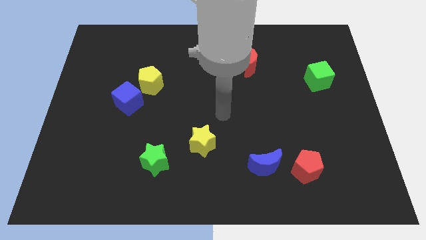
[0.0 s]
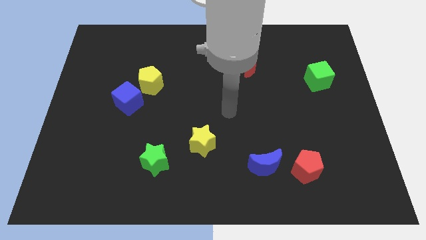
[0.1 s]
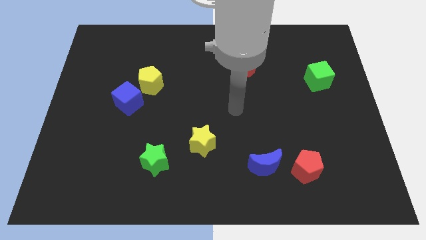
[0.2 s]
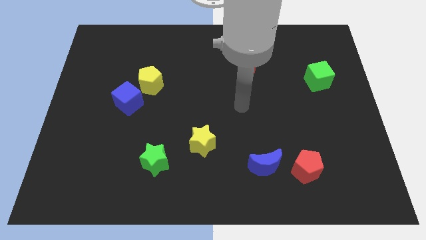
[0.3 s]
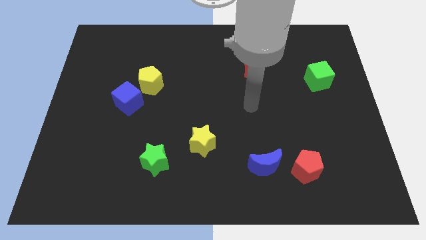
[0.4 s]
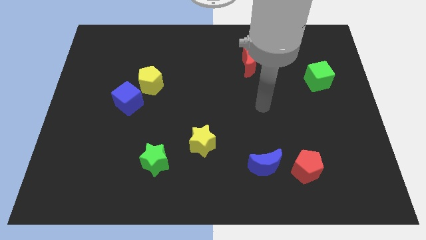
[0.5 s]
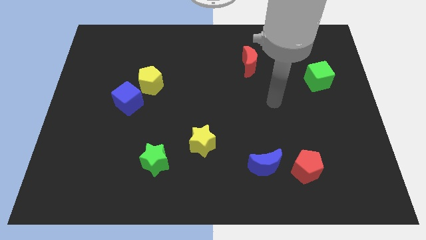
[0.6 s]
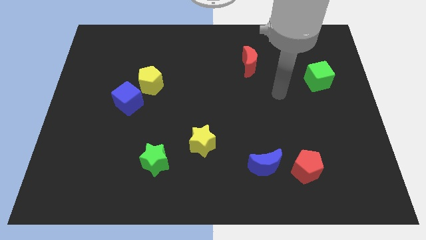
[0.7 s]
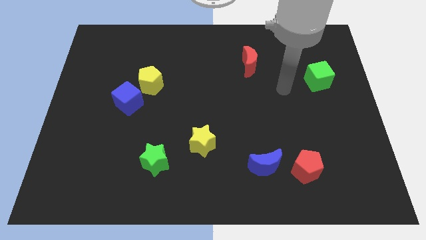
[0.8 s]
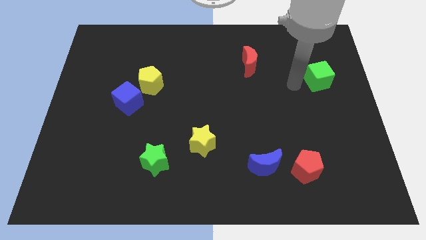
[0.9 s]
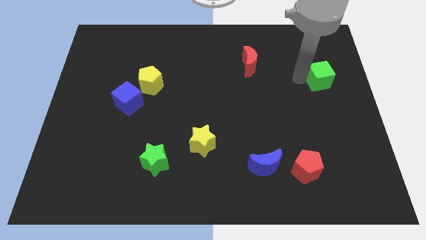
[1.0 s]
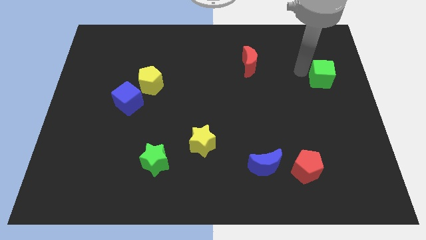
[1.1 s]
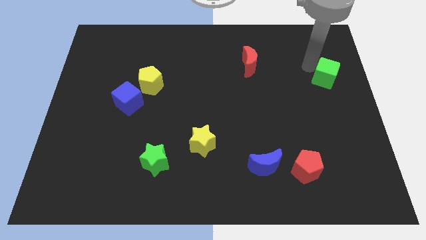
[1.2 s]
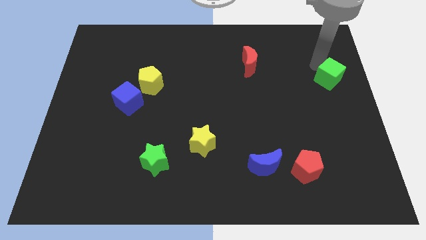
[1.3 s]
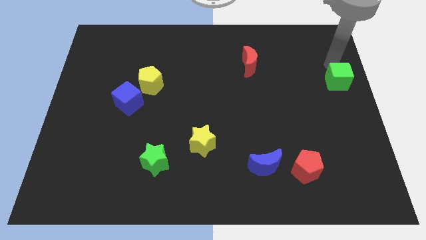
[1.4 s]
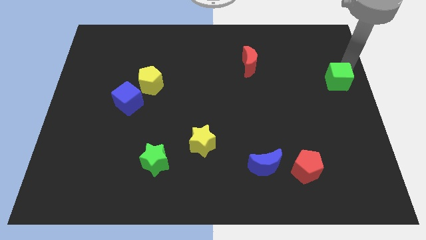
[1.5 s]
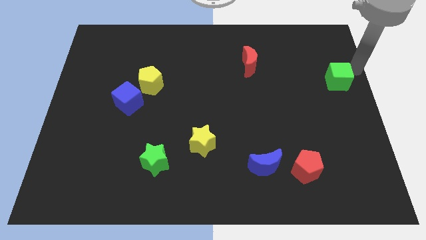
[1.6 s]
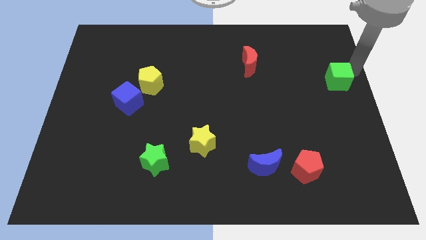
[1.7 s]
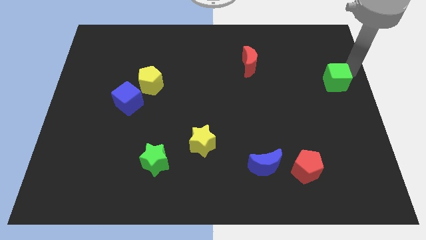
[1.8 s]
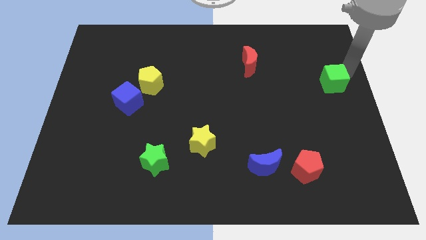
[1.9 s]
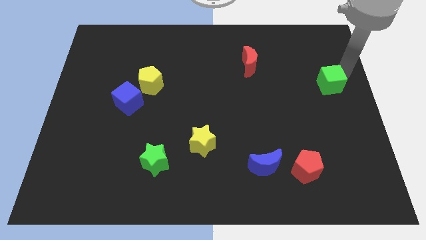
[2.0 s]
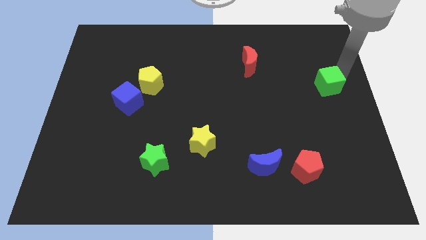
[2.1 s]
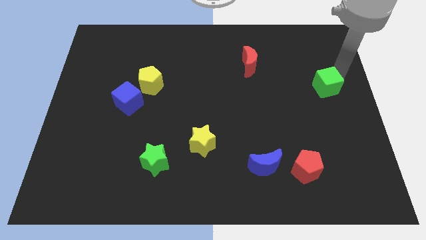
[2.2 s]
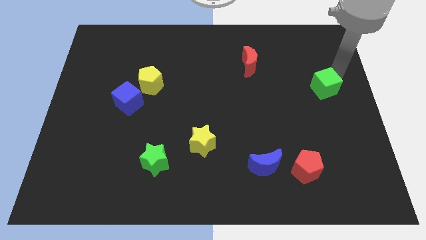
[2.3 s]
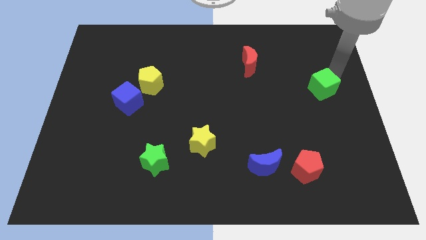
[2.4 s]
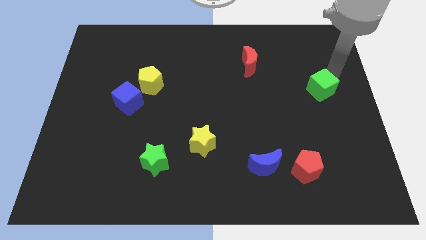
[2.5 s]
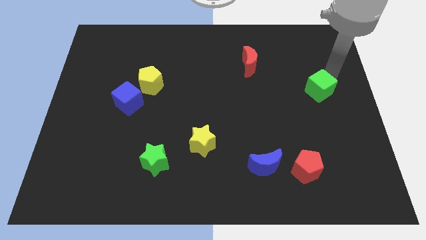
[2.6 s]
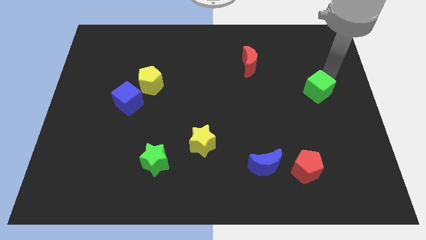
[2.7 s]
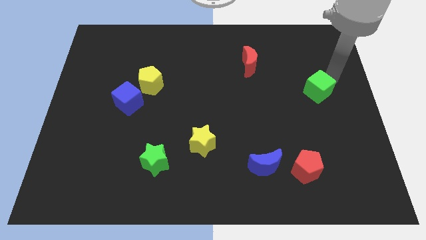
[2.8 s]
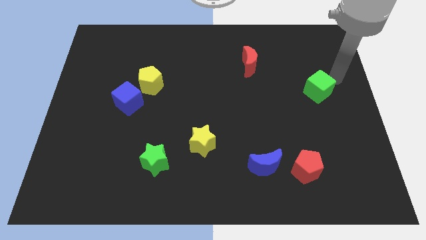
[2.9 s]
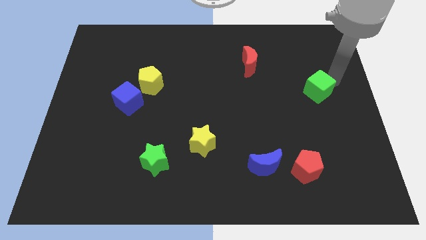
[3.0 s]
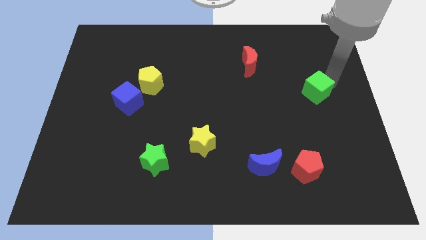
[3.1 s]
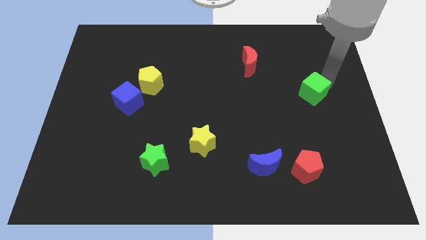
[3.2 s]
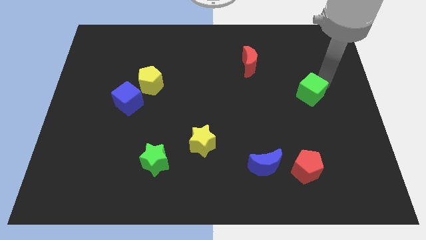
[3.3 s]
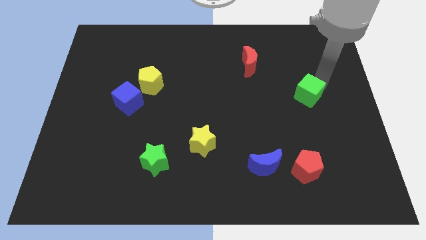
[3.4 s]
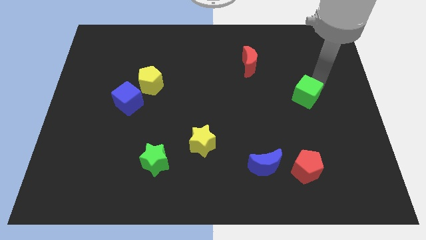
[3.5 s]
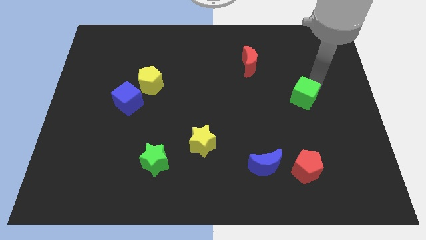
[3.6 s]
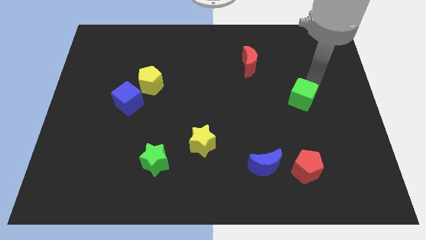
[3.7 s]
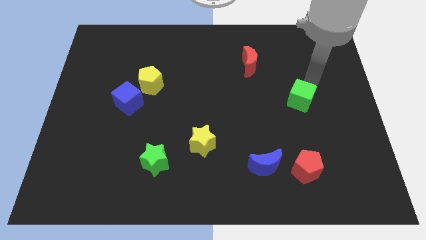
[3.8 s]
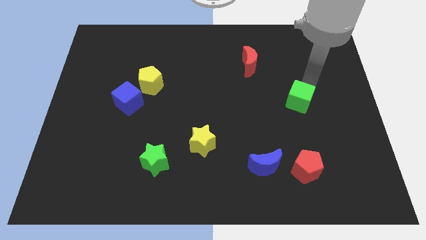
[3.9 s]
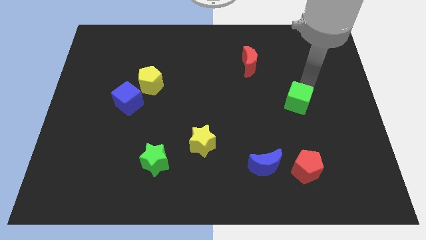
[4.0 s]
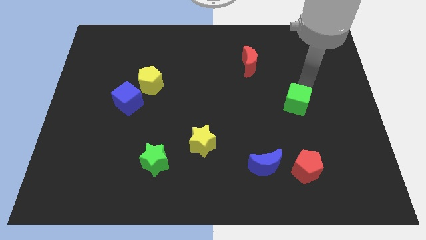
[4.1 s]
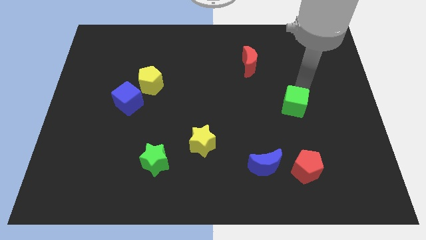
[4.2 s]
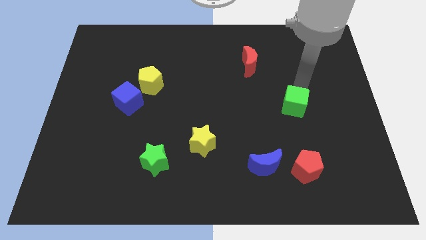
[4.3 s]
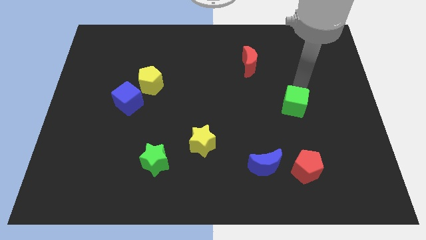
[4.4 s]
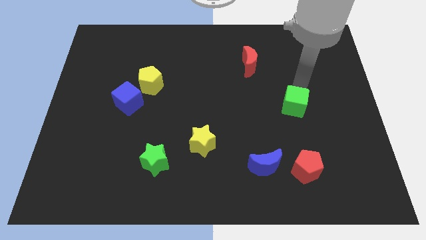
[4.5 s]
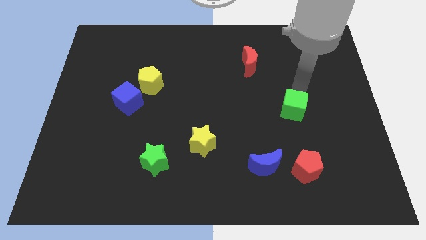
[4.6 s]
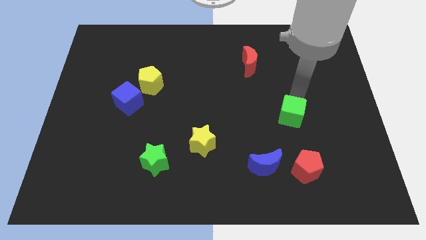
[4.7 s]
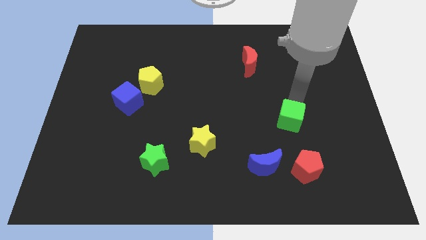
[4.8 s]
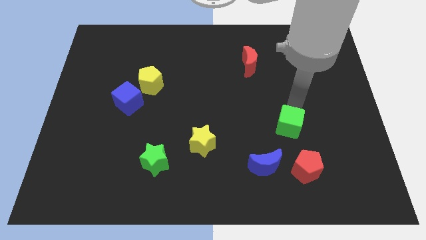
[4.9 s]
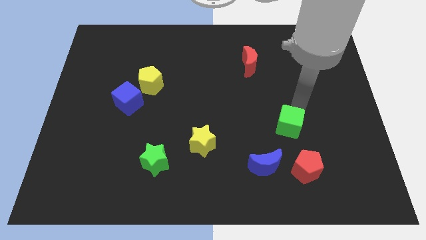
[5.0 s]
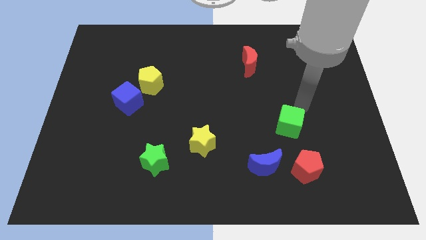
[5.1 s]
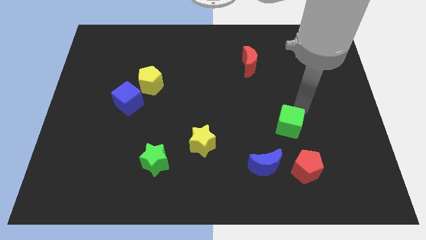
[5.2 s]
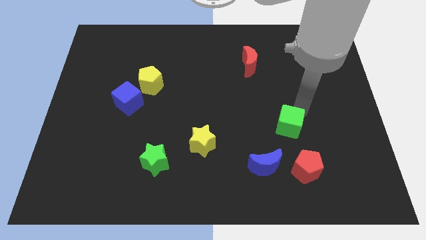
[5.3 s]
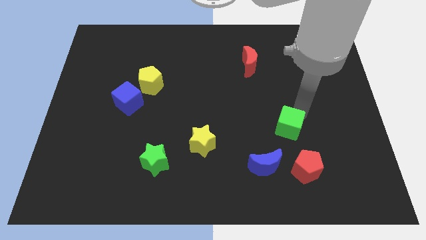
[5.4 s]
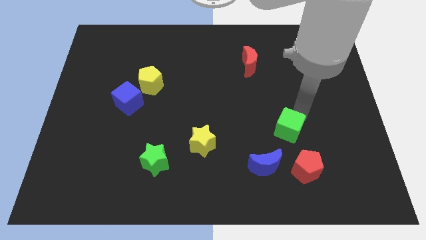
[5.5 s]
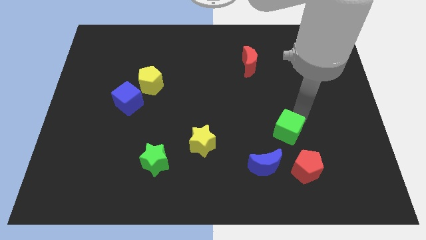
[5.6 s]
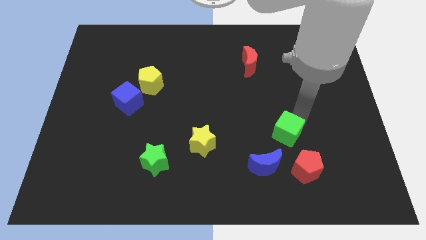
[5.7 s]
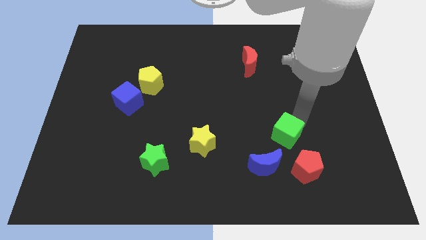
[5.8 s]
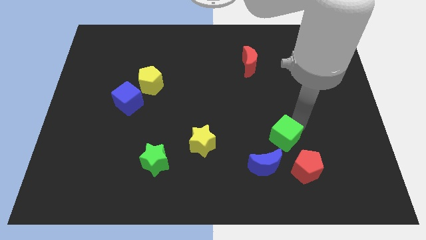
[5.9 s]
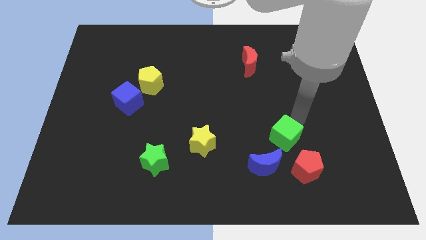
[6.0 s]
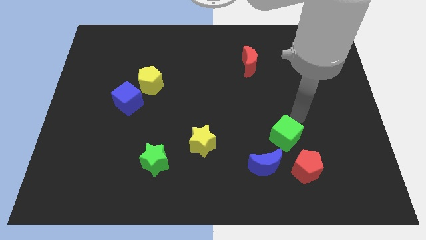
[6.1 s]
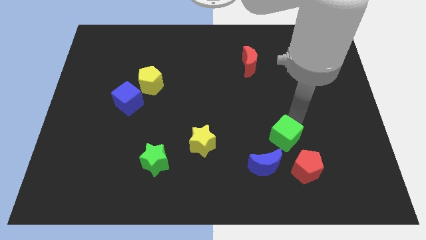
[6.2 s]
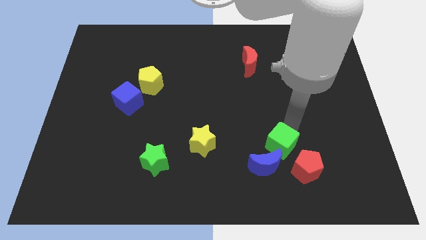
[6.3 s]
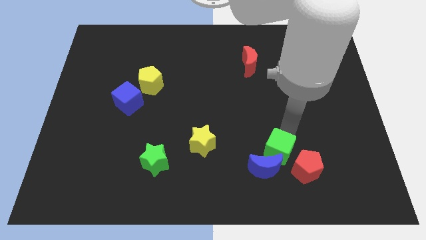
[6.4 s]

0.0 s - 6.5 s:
move the green cube next to the blue moon

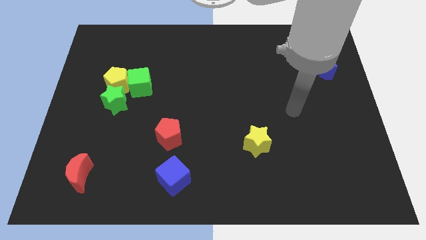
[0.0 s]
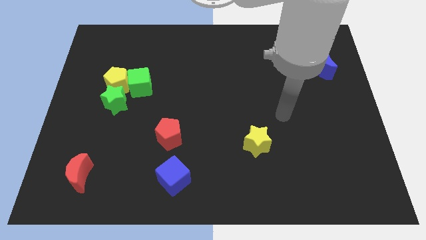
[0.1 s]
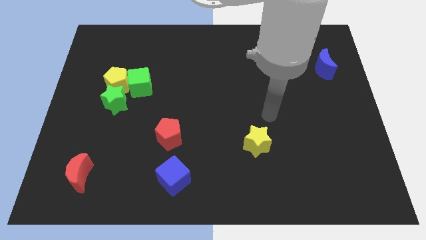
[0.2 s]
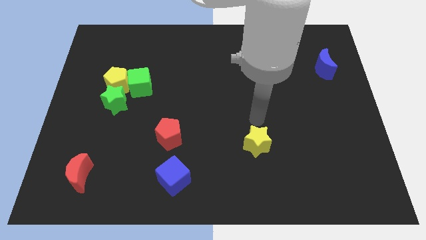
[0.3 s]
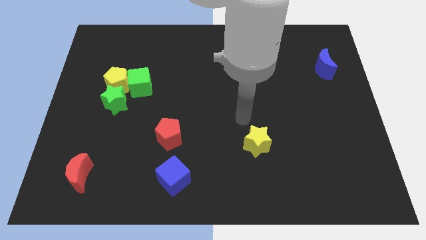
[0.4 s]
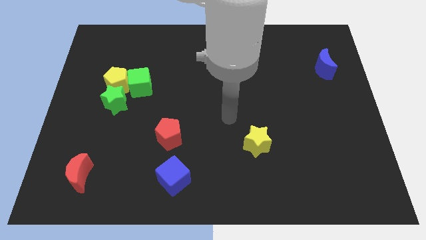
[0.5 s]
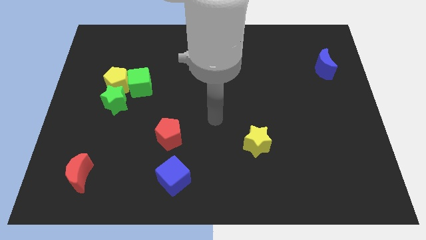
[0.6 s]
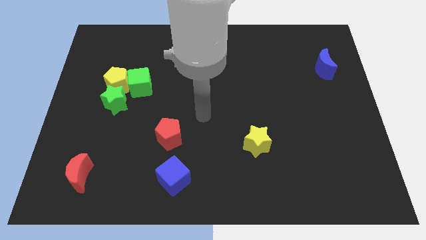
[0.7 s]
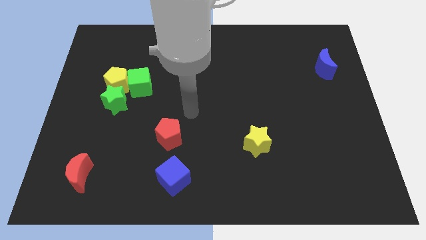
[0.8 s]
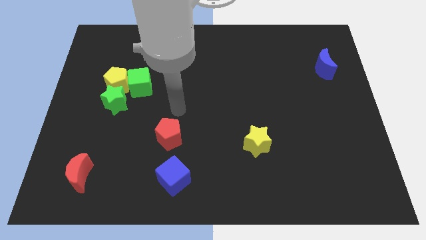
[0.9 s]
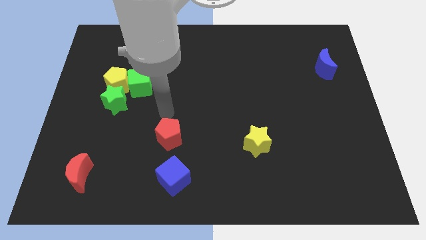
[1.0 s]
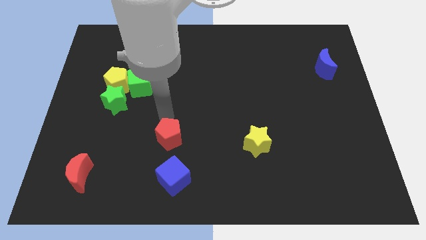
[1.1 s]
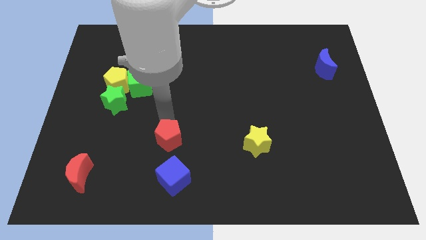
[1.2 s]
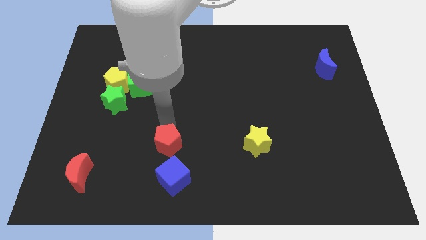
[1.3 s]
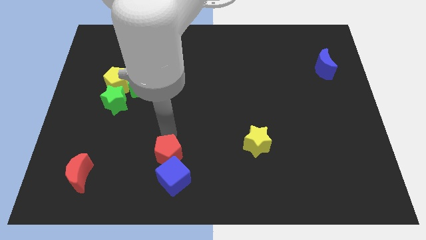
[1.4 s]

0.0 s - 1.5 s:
slide the red pentagon towards the blue cube
